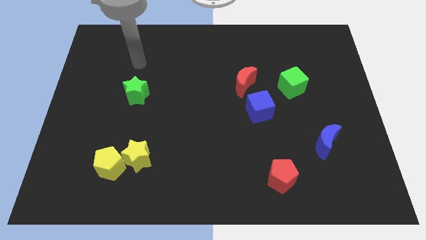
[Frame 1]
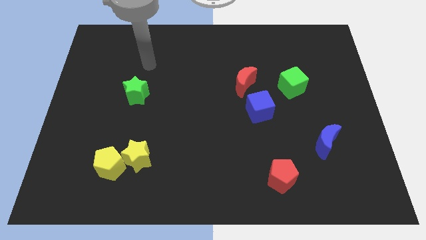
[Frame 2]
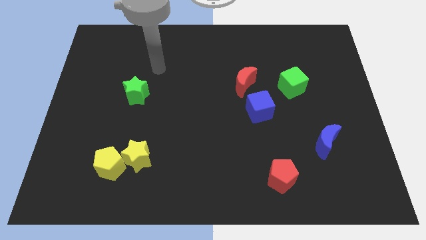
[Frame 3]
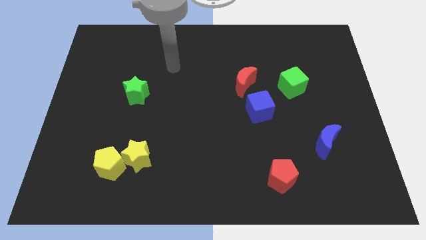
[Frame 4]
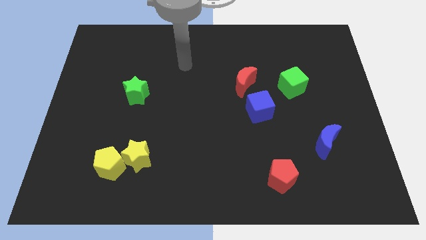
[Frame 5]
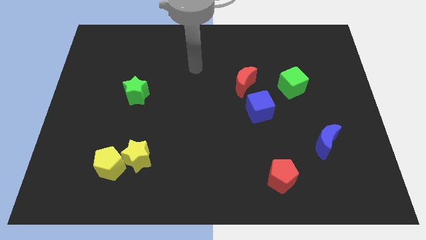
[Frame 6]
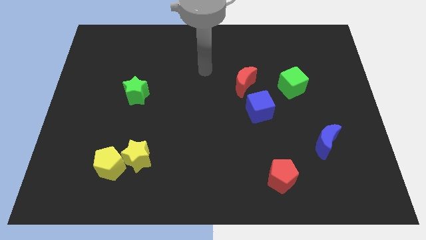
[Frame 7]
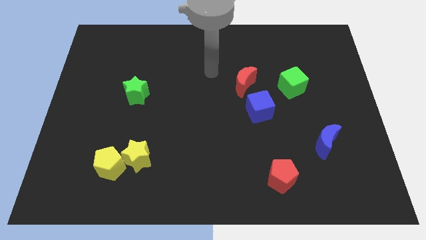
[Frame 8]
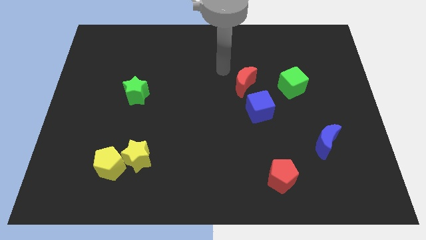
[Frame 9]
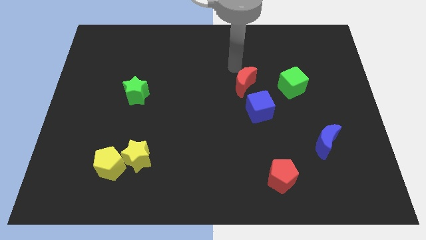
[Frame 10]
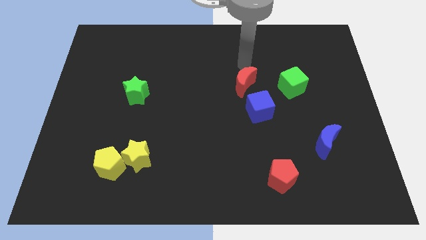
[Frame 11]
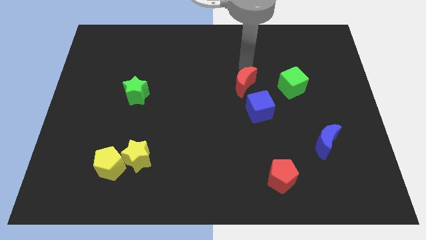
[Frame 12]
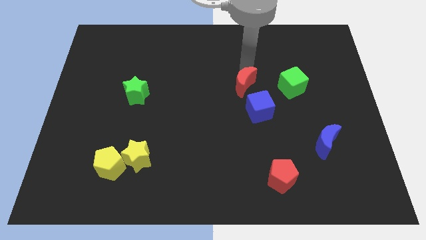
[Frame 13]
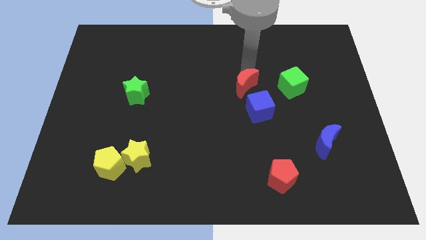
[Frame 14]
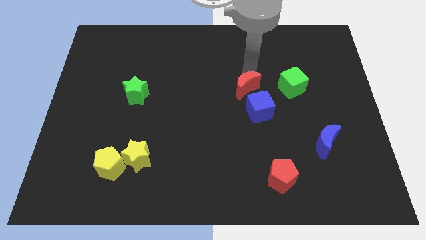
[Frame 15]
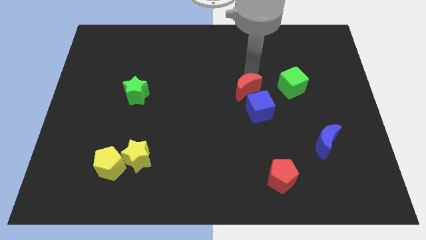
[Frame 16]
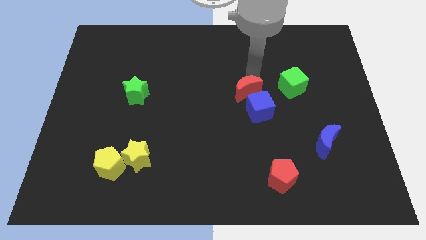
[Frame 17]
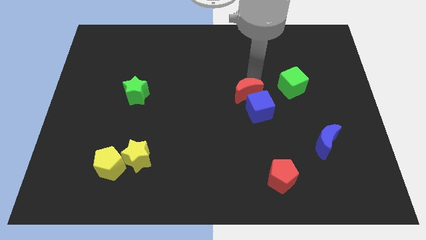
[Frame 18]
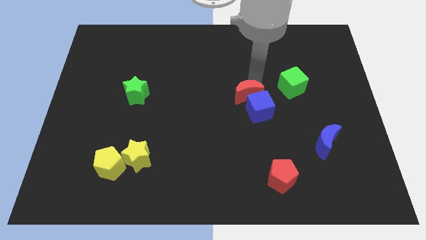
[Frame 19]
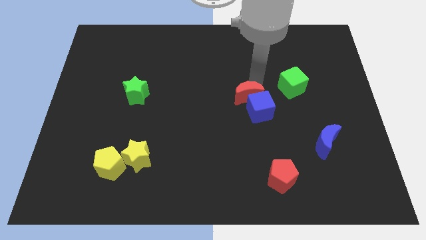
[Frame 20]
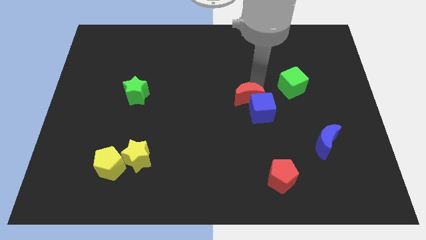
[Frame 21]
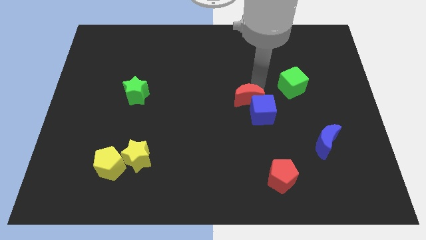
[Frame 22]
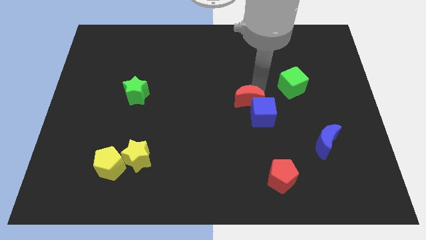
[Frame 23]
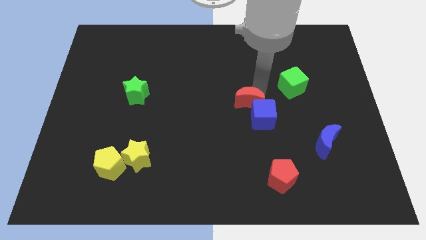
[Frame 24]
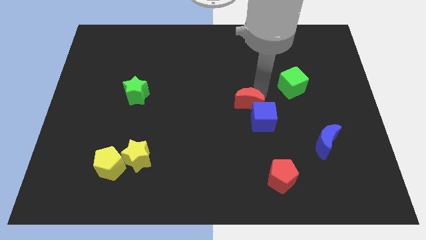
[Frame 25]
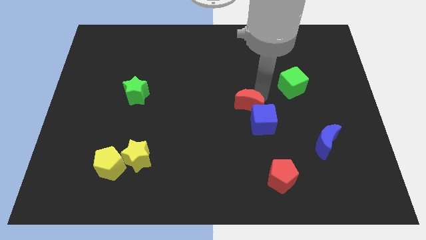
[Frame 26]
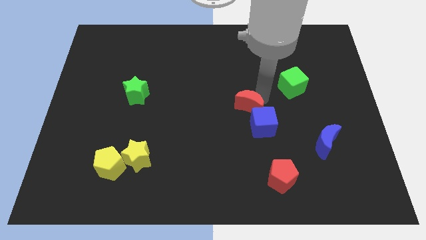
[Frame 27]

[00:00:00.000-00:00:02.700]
slightly push the red moon downwards

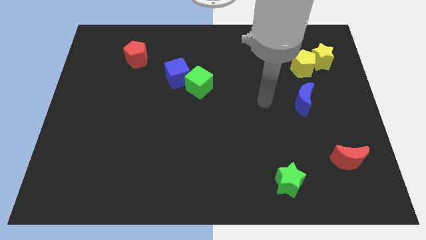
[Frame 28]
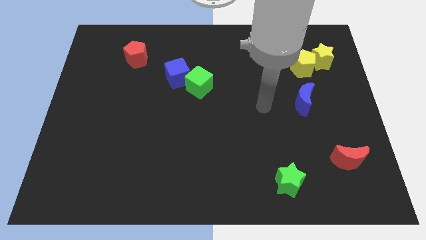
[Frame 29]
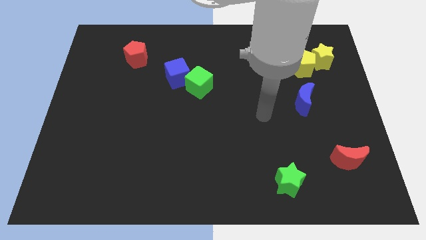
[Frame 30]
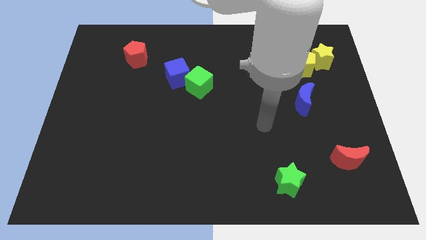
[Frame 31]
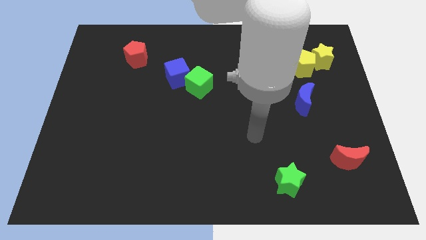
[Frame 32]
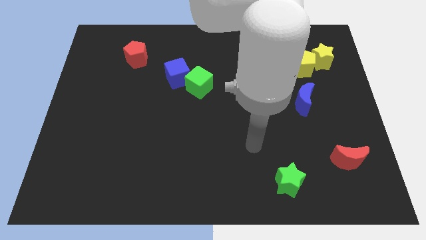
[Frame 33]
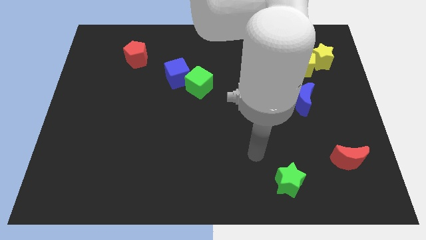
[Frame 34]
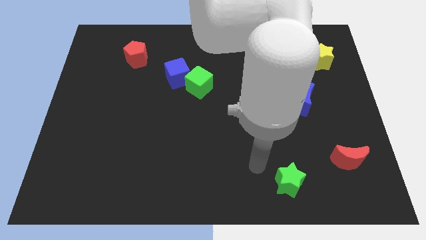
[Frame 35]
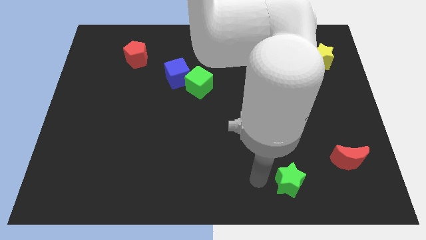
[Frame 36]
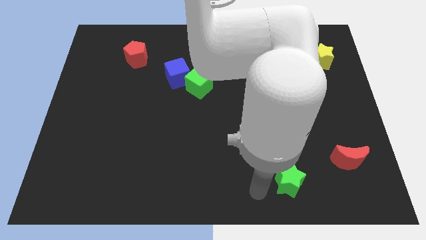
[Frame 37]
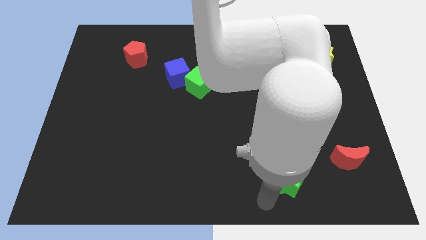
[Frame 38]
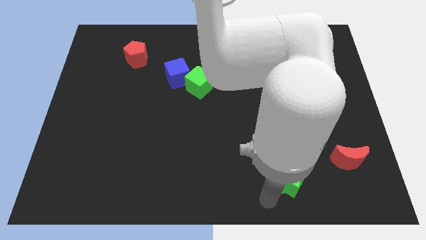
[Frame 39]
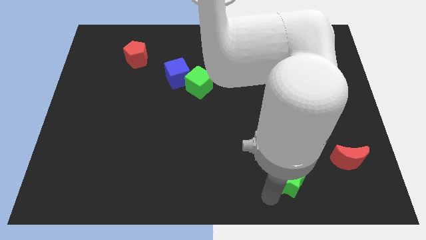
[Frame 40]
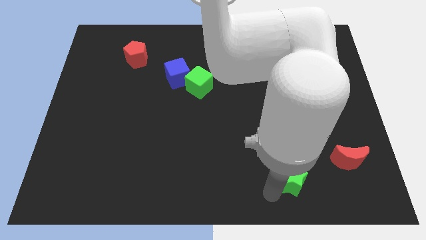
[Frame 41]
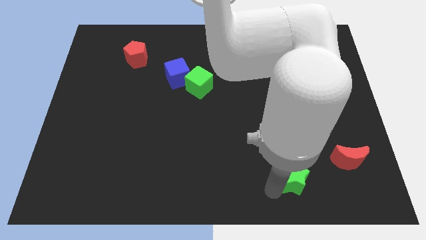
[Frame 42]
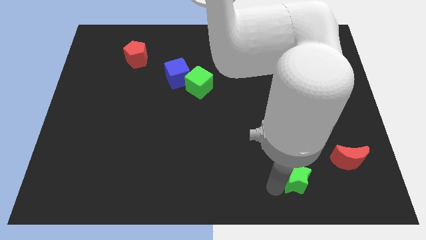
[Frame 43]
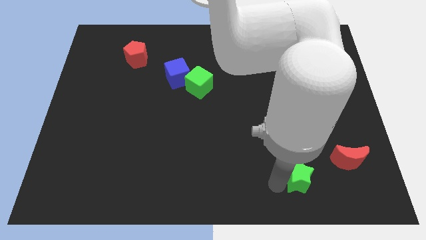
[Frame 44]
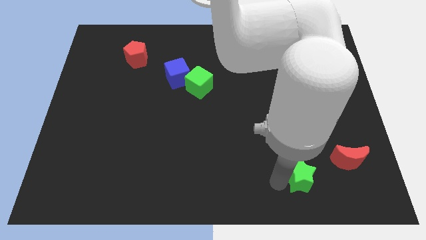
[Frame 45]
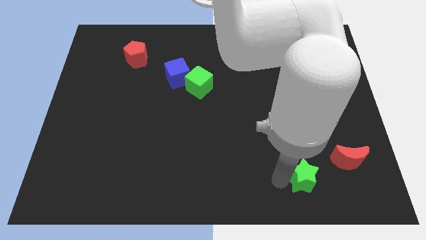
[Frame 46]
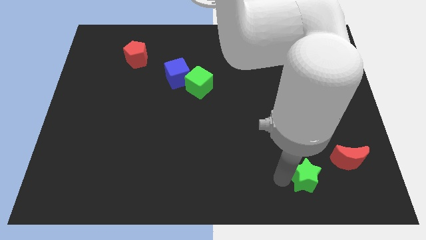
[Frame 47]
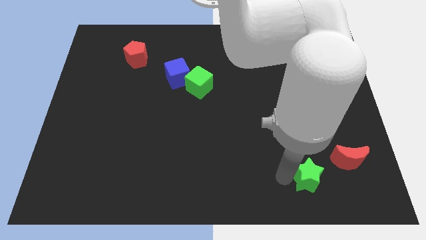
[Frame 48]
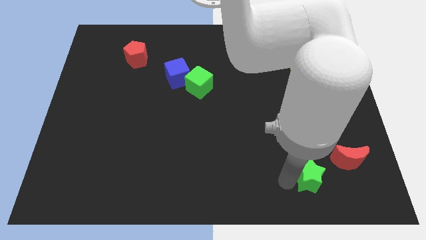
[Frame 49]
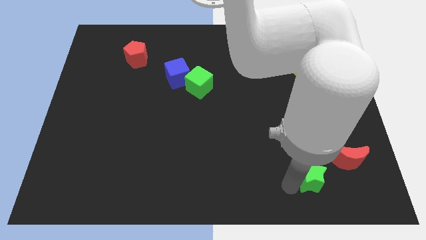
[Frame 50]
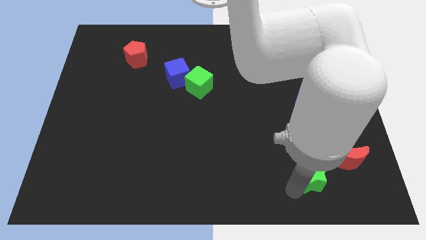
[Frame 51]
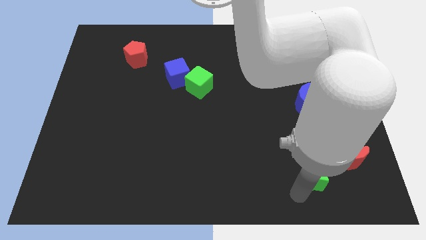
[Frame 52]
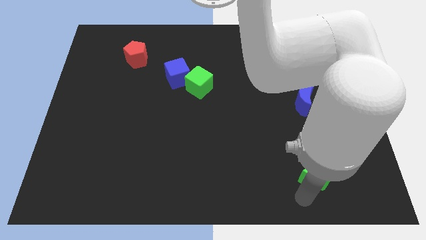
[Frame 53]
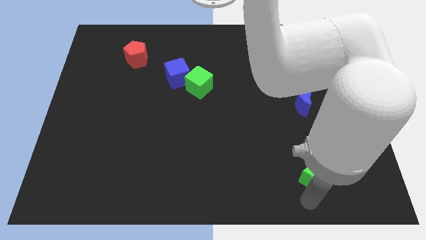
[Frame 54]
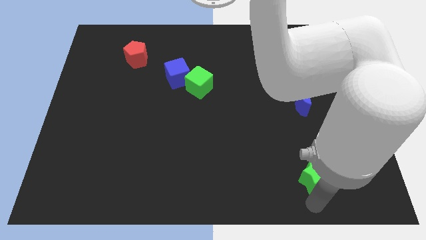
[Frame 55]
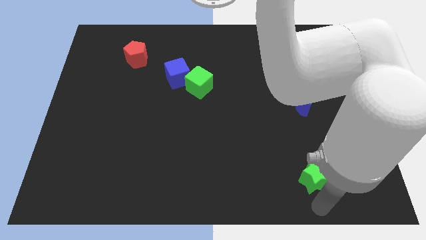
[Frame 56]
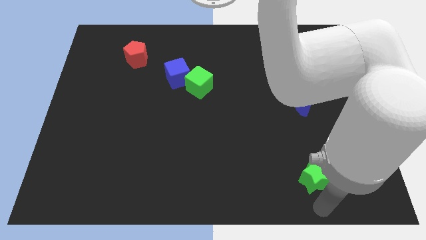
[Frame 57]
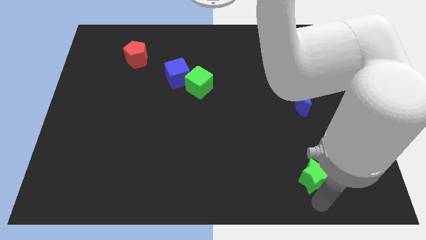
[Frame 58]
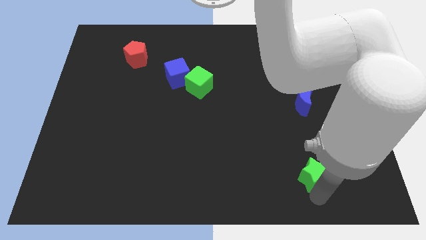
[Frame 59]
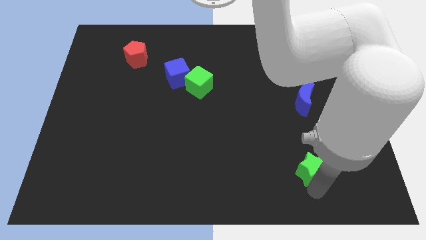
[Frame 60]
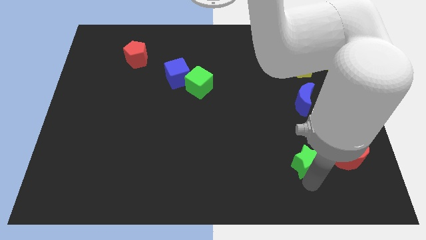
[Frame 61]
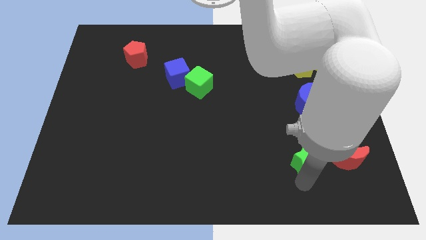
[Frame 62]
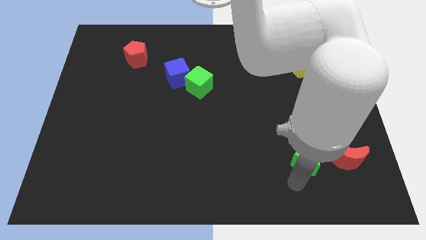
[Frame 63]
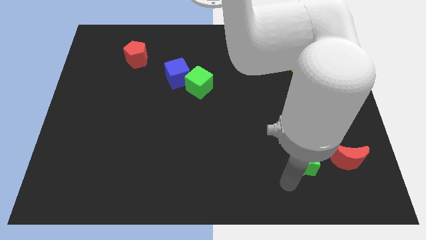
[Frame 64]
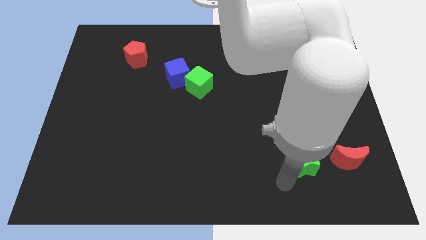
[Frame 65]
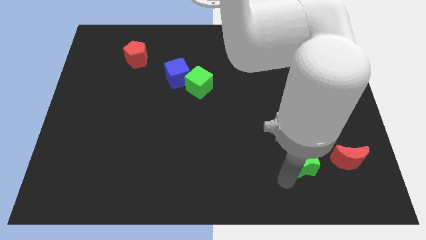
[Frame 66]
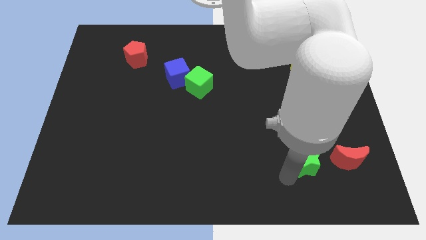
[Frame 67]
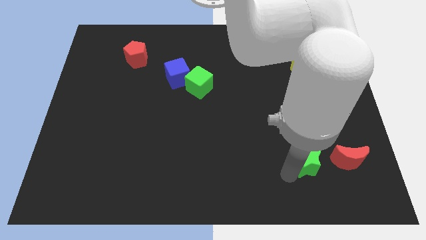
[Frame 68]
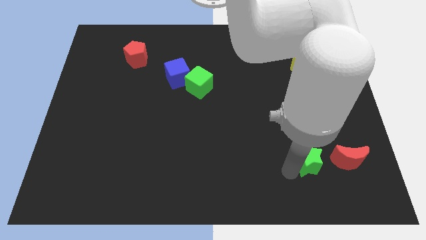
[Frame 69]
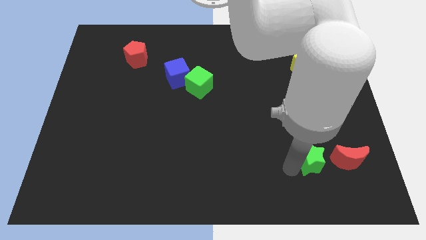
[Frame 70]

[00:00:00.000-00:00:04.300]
slightly push the green star diagonally up and to the right

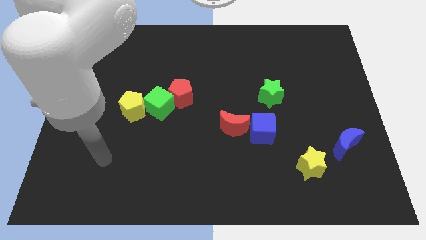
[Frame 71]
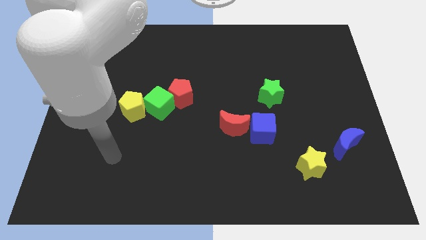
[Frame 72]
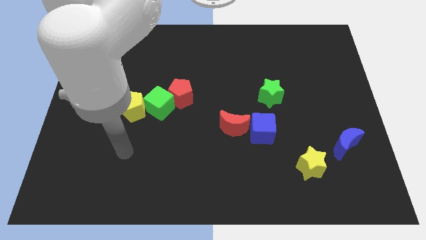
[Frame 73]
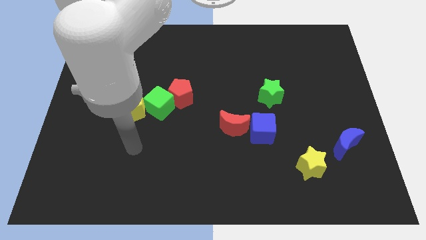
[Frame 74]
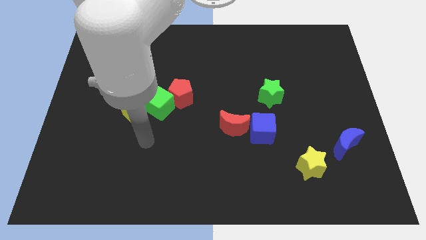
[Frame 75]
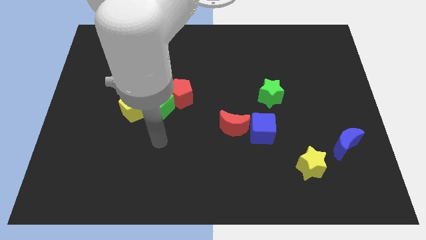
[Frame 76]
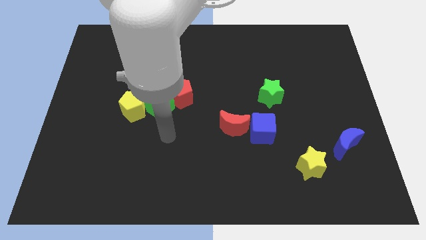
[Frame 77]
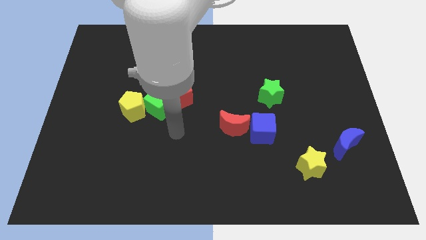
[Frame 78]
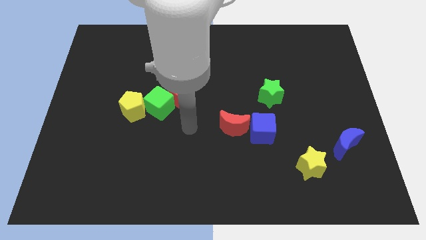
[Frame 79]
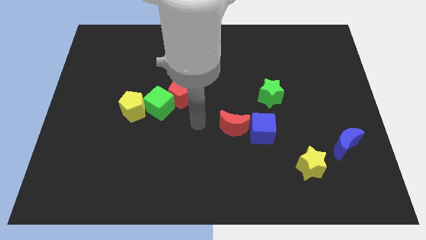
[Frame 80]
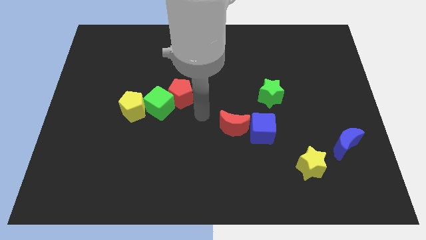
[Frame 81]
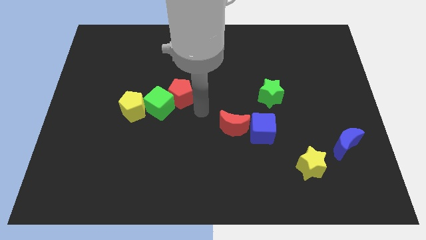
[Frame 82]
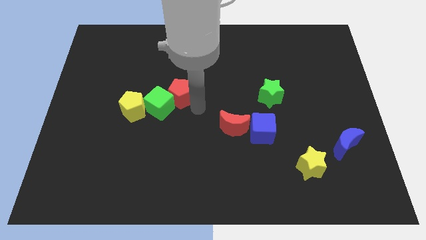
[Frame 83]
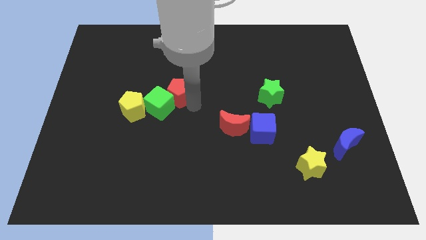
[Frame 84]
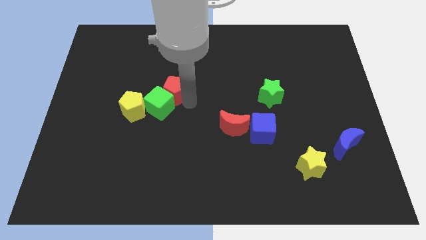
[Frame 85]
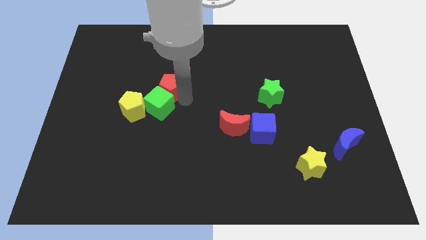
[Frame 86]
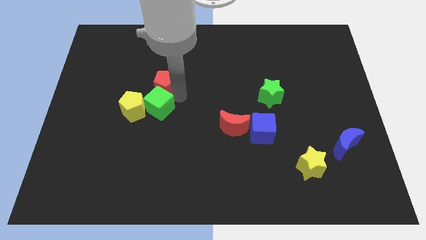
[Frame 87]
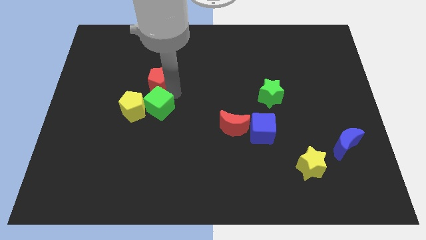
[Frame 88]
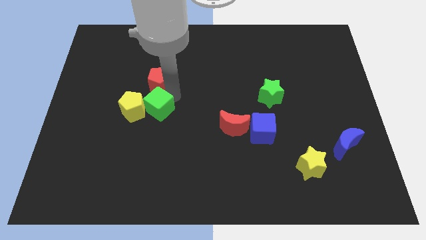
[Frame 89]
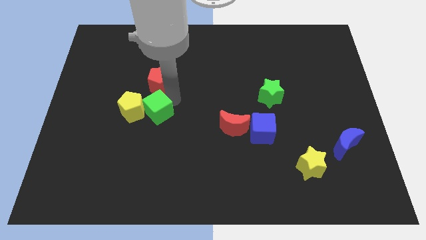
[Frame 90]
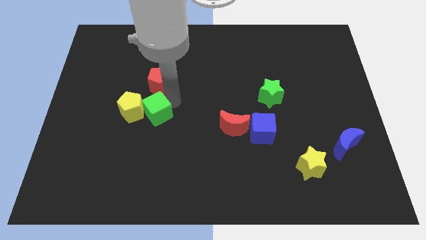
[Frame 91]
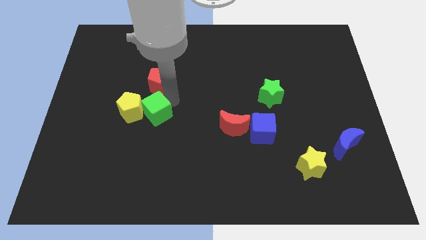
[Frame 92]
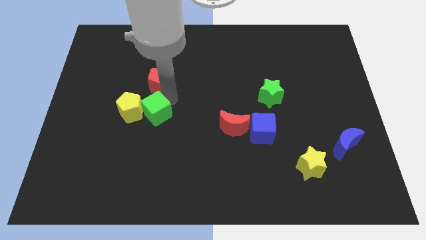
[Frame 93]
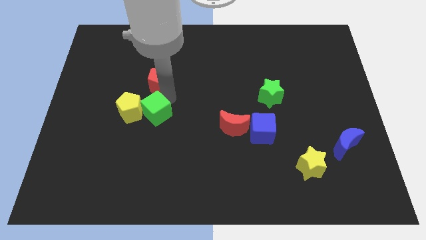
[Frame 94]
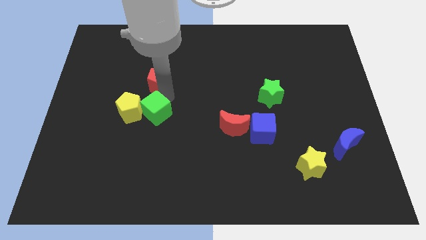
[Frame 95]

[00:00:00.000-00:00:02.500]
slide the red pentagon slightly up and left diagonally
